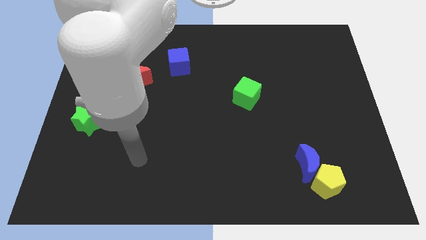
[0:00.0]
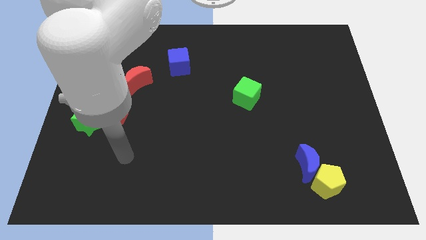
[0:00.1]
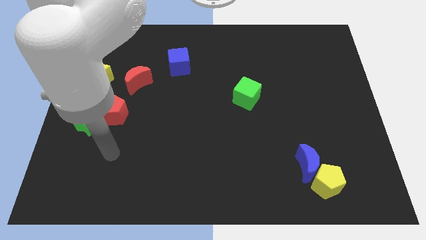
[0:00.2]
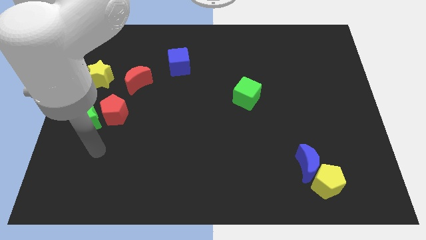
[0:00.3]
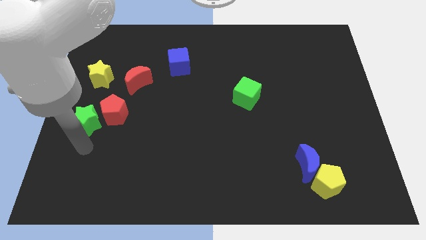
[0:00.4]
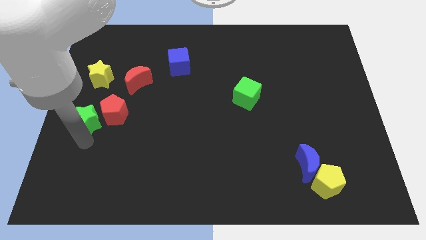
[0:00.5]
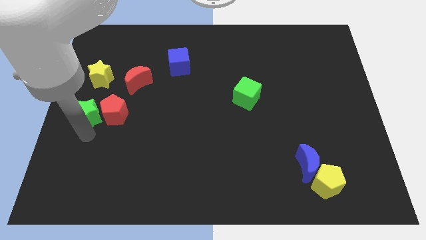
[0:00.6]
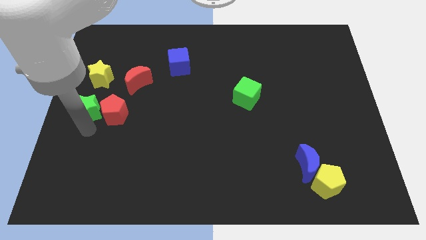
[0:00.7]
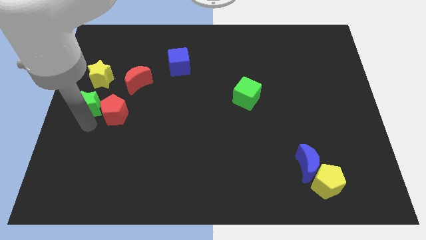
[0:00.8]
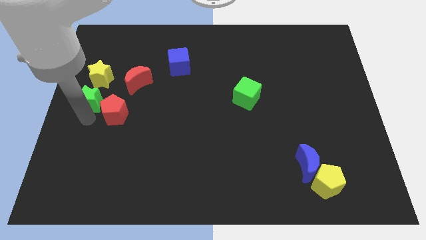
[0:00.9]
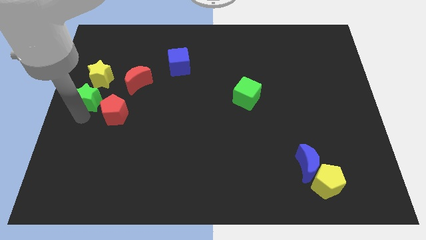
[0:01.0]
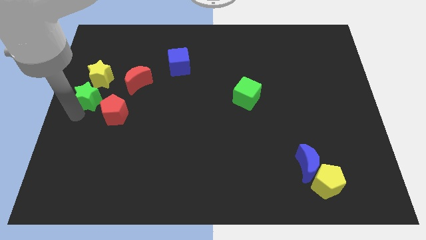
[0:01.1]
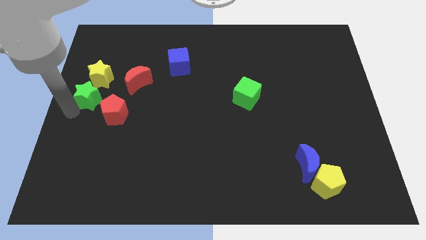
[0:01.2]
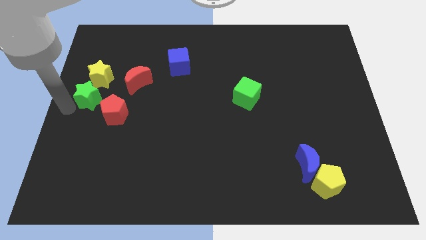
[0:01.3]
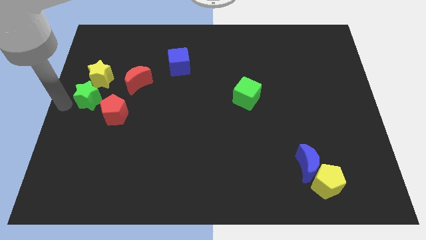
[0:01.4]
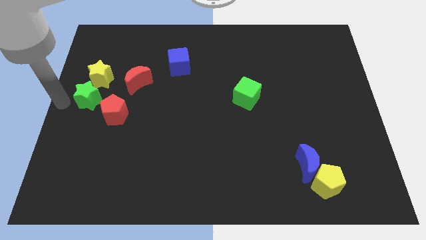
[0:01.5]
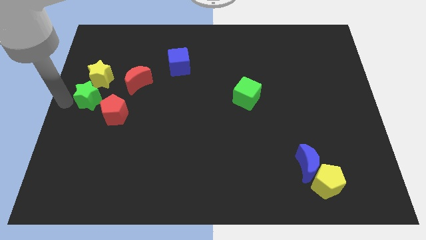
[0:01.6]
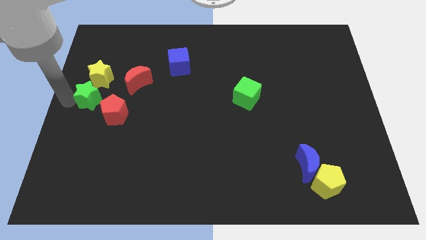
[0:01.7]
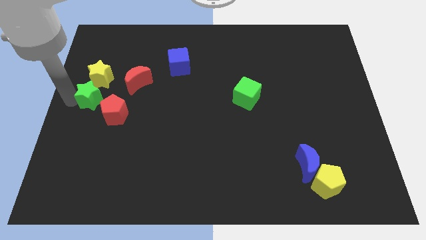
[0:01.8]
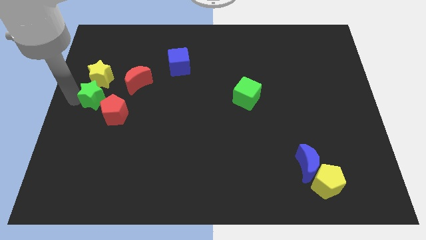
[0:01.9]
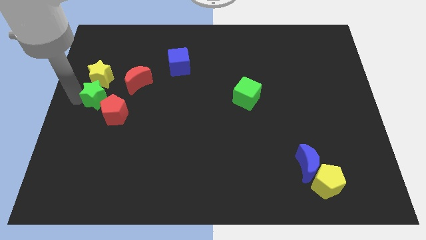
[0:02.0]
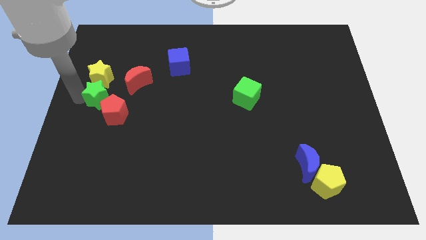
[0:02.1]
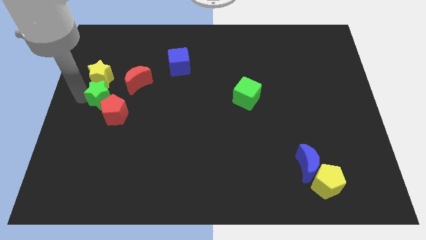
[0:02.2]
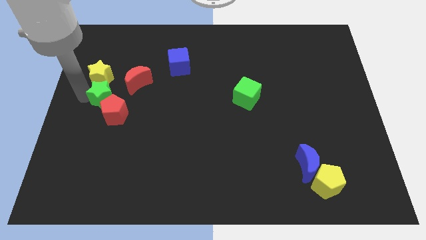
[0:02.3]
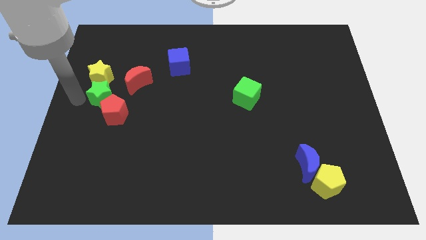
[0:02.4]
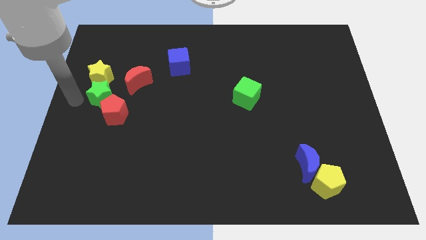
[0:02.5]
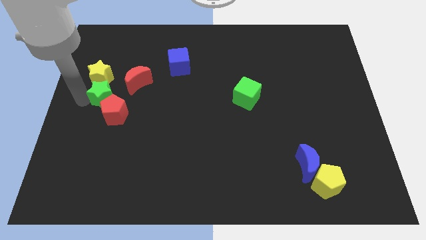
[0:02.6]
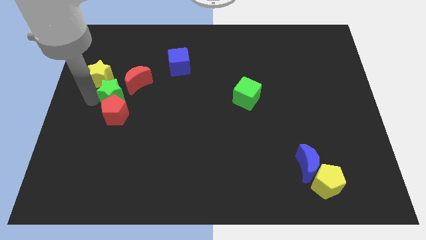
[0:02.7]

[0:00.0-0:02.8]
move the green star upwards and then right a little

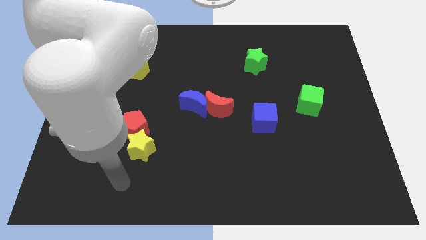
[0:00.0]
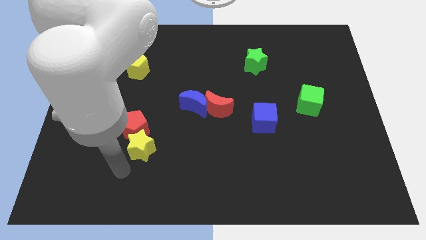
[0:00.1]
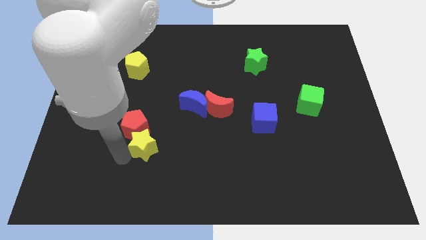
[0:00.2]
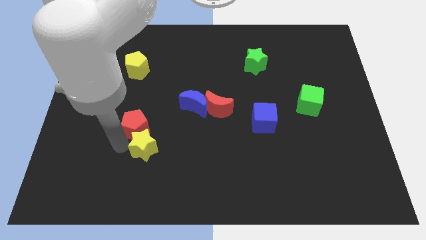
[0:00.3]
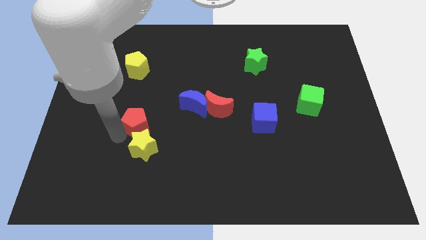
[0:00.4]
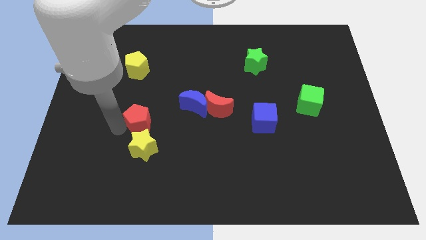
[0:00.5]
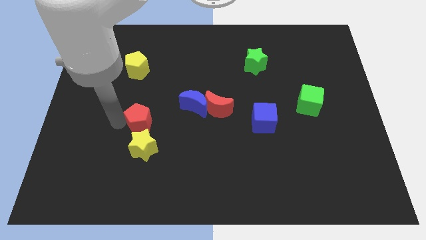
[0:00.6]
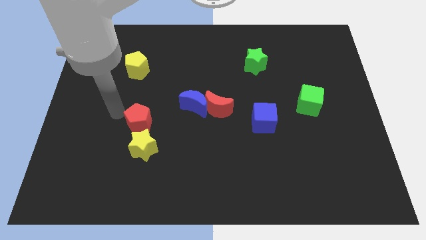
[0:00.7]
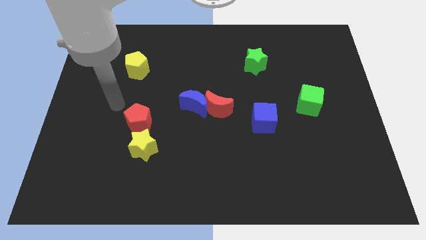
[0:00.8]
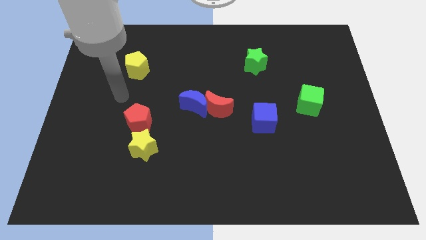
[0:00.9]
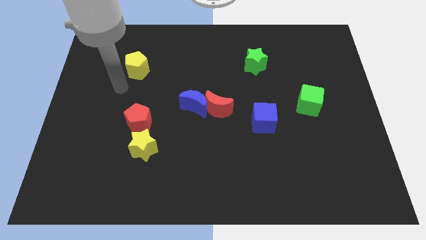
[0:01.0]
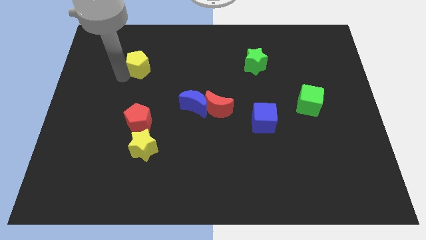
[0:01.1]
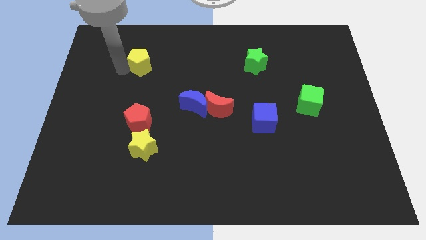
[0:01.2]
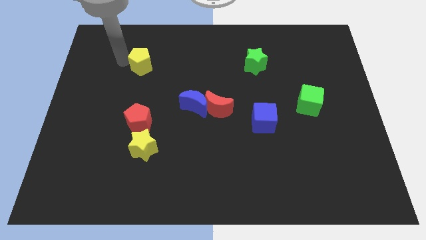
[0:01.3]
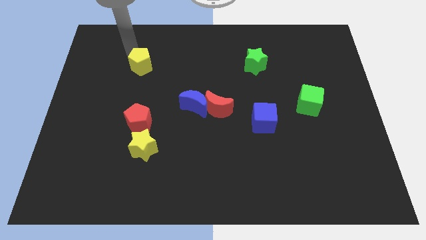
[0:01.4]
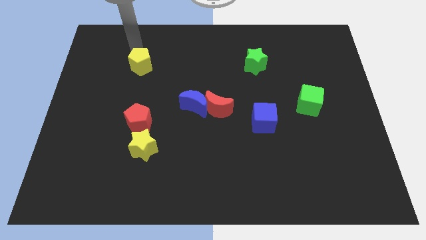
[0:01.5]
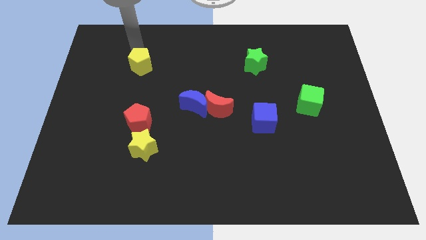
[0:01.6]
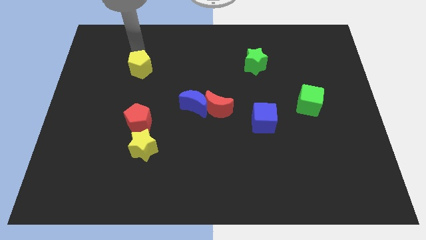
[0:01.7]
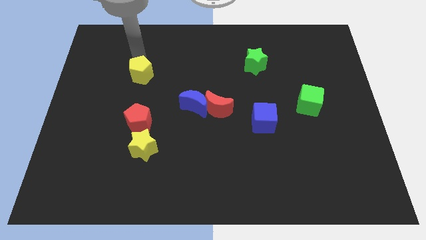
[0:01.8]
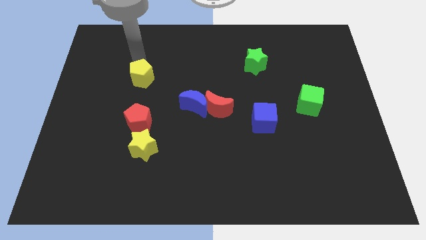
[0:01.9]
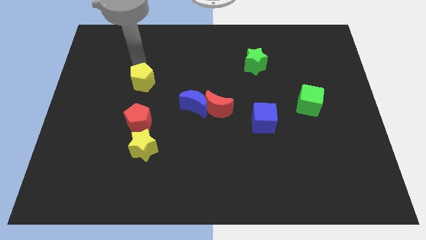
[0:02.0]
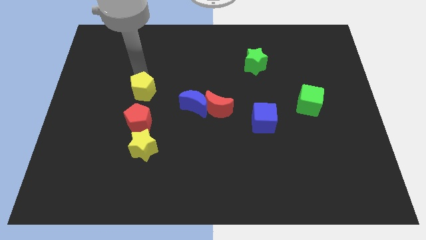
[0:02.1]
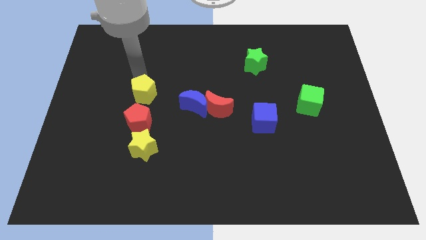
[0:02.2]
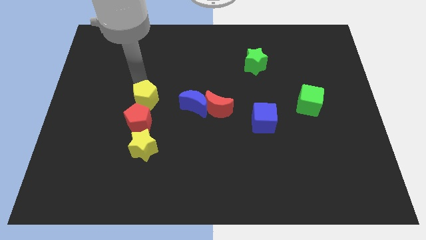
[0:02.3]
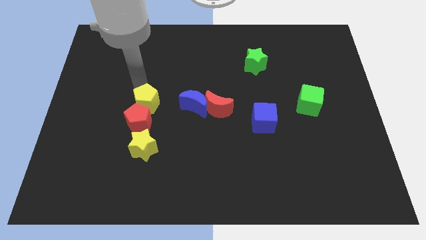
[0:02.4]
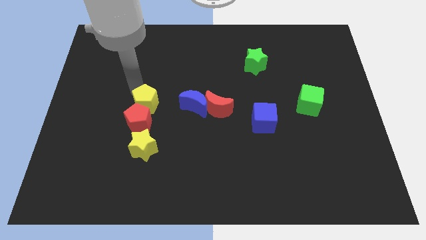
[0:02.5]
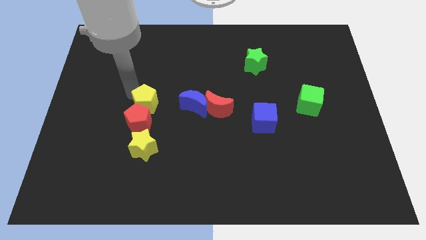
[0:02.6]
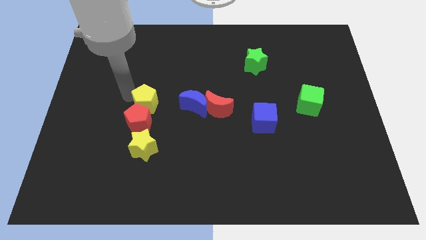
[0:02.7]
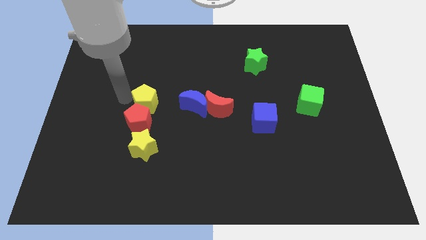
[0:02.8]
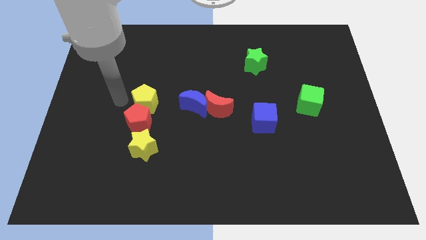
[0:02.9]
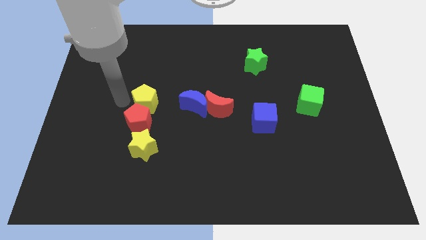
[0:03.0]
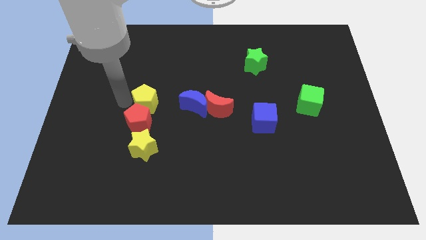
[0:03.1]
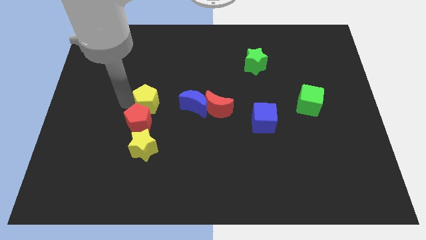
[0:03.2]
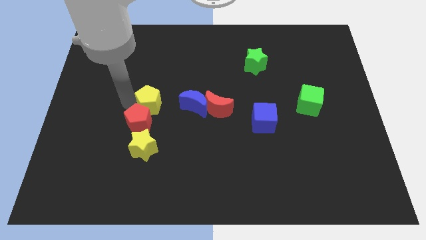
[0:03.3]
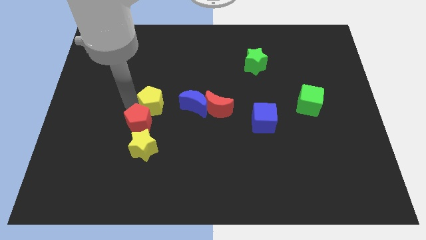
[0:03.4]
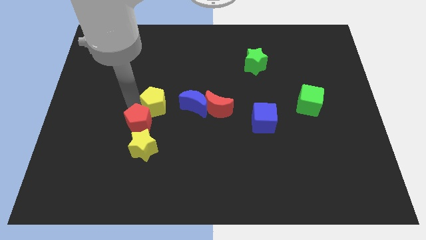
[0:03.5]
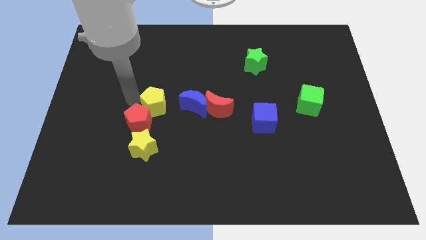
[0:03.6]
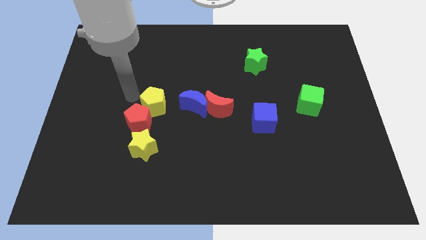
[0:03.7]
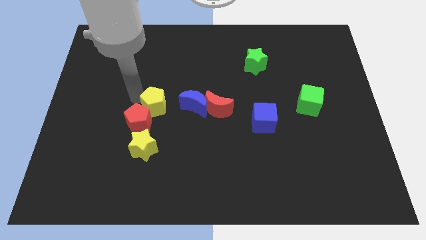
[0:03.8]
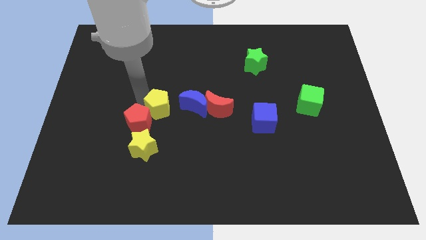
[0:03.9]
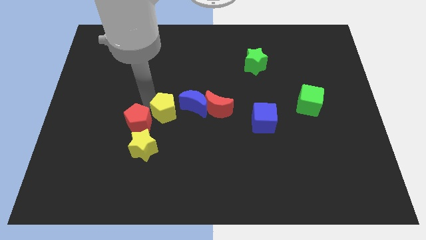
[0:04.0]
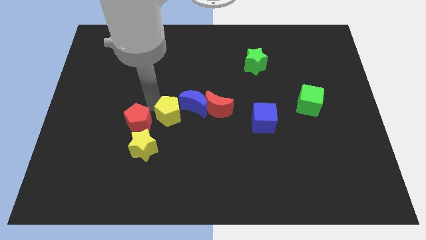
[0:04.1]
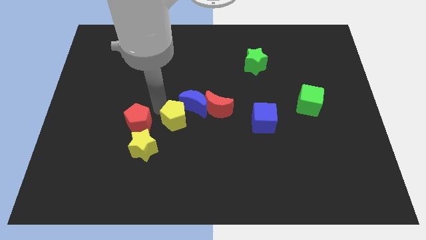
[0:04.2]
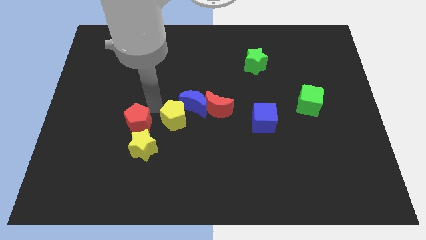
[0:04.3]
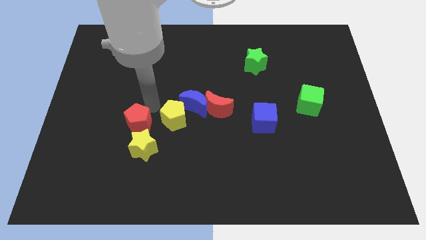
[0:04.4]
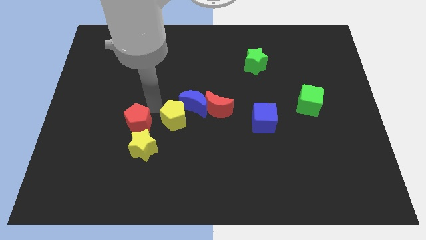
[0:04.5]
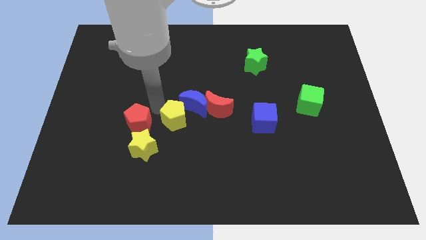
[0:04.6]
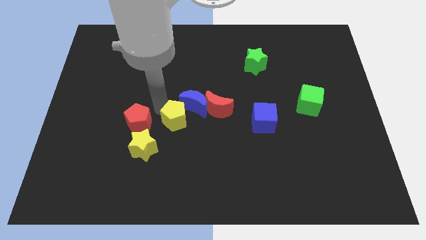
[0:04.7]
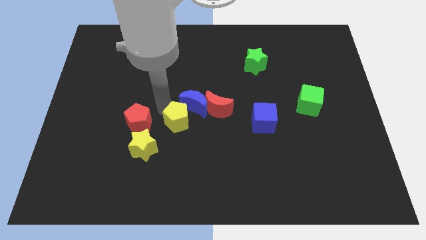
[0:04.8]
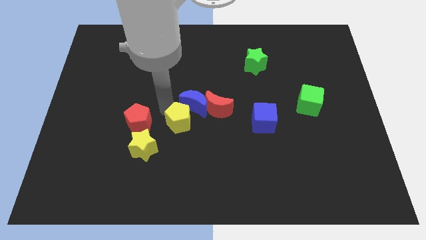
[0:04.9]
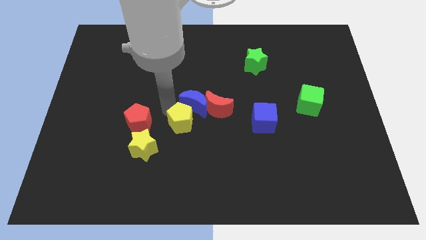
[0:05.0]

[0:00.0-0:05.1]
move the yellow pentagon diagonally downwards and right

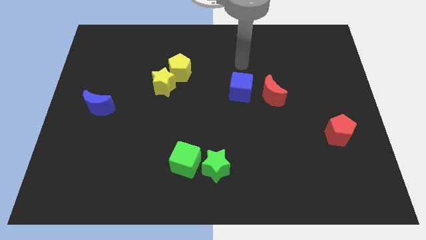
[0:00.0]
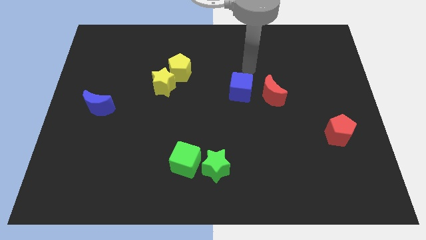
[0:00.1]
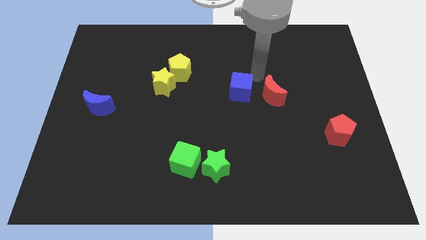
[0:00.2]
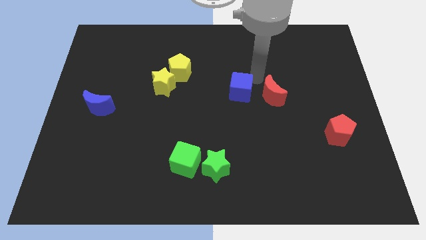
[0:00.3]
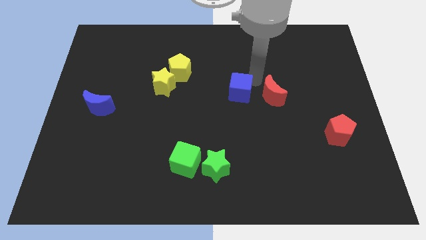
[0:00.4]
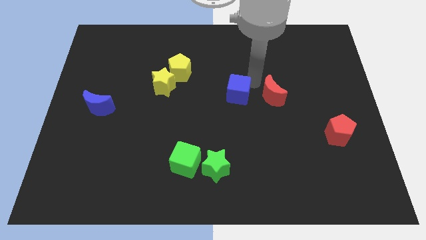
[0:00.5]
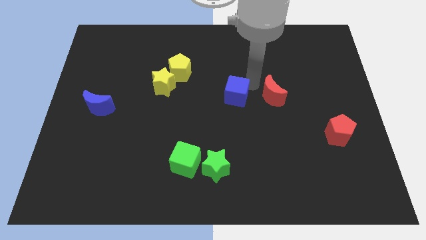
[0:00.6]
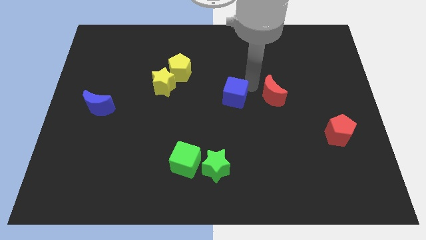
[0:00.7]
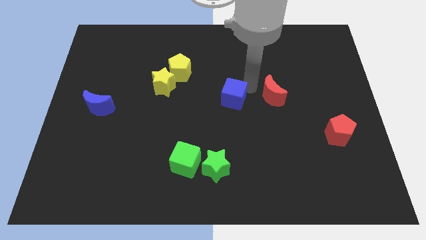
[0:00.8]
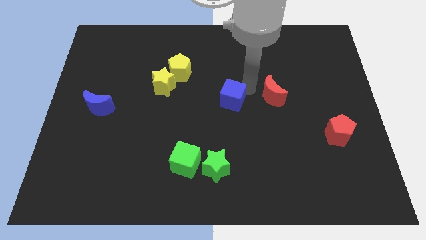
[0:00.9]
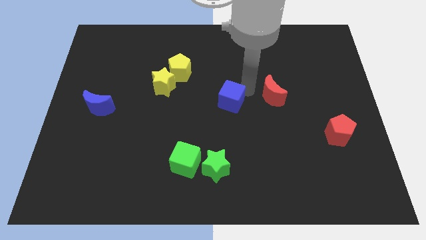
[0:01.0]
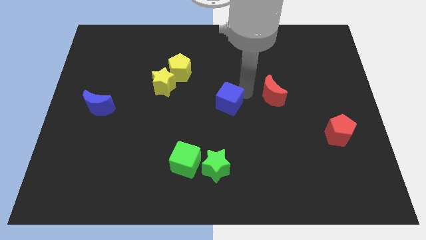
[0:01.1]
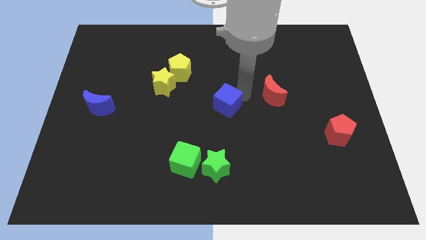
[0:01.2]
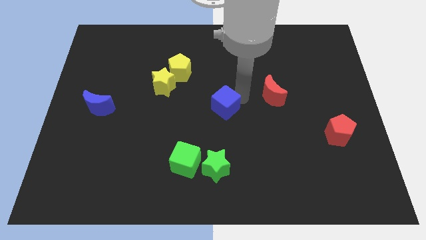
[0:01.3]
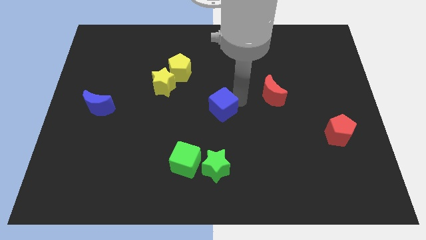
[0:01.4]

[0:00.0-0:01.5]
slide the blue cube downwards and to the left diagonally slightly
